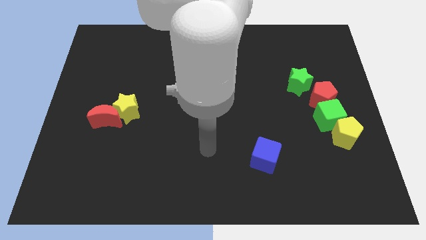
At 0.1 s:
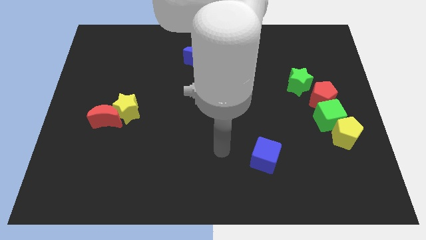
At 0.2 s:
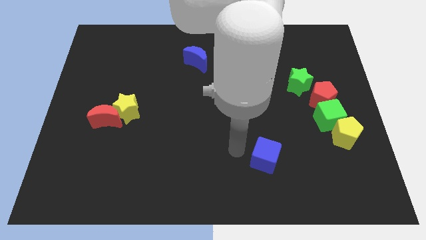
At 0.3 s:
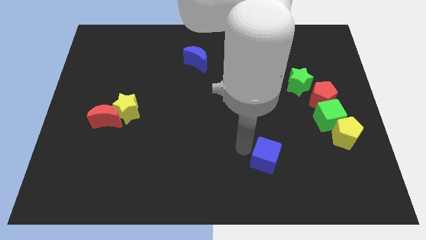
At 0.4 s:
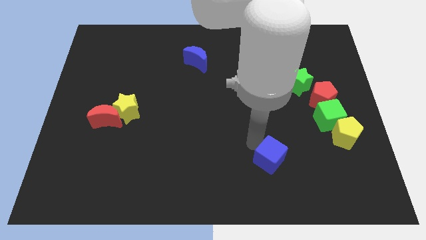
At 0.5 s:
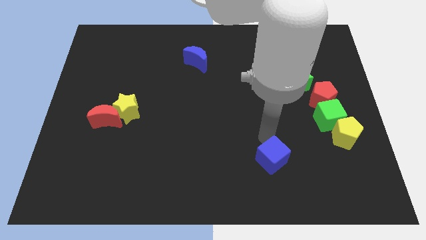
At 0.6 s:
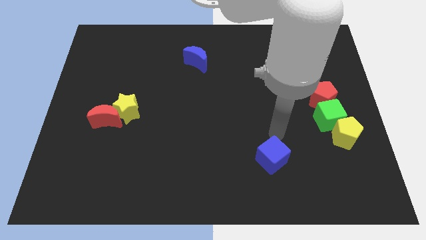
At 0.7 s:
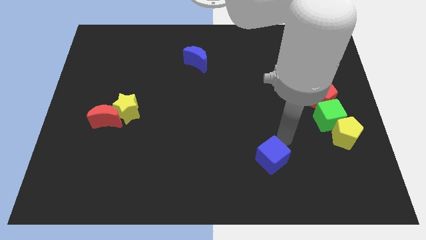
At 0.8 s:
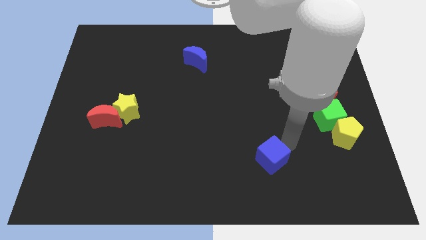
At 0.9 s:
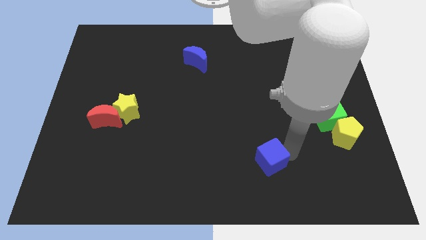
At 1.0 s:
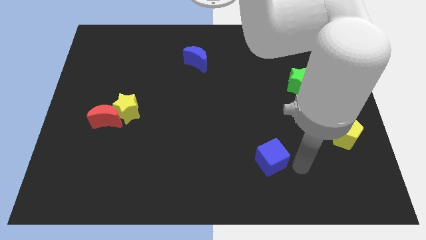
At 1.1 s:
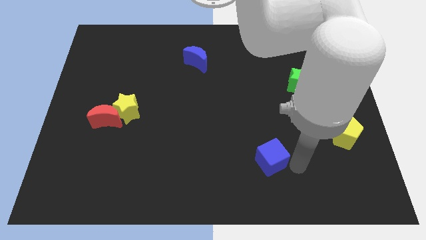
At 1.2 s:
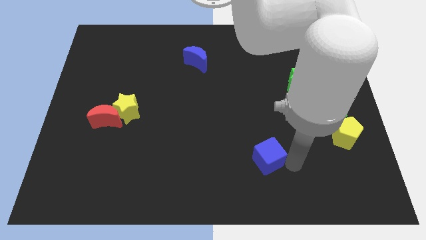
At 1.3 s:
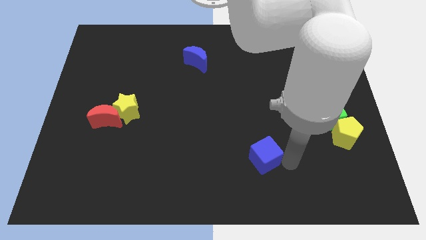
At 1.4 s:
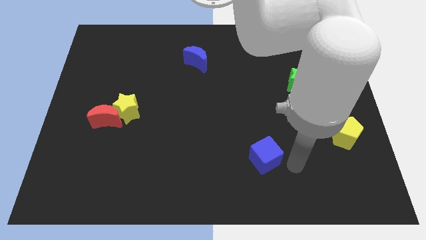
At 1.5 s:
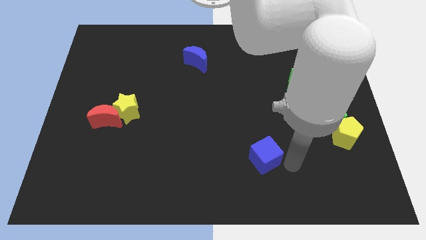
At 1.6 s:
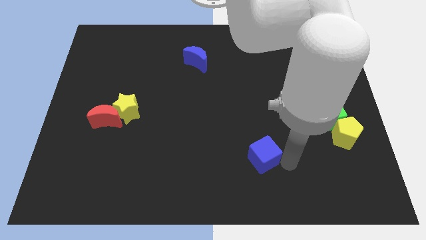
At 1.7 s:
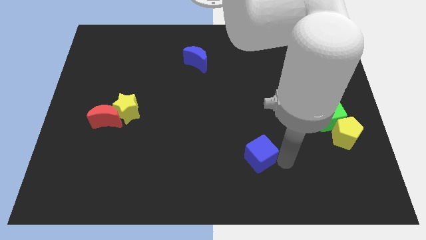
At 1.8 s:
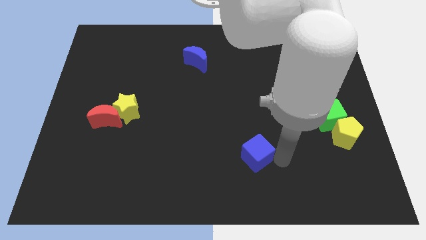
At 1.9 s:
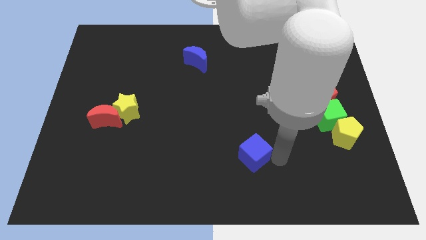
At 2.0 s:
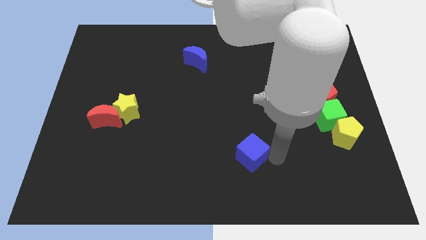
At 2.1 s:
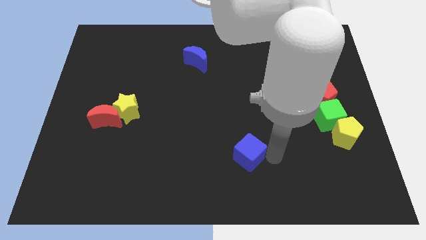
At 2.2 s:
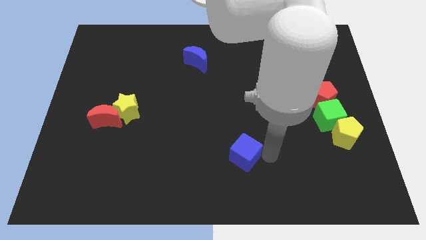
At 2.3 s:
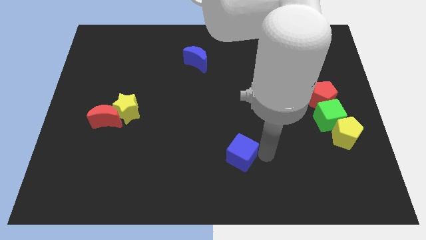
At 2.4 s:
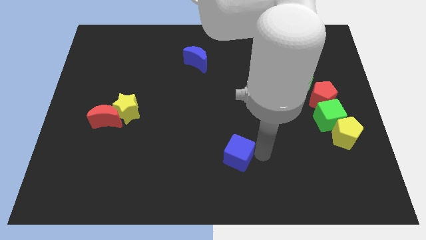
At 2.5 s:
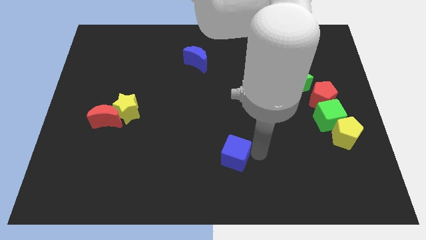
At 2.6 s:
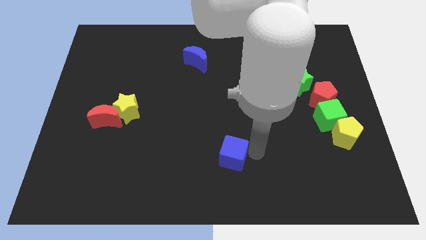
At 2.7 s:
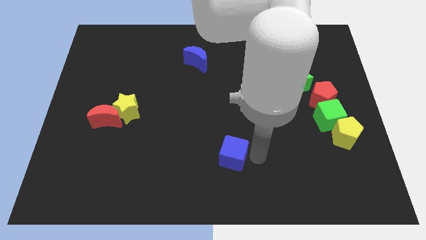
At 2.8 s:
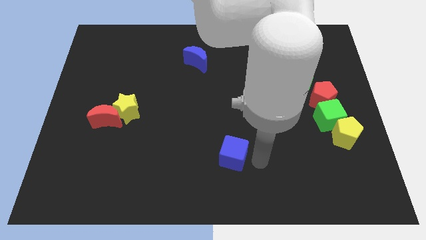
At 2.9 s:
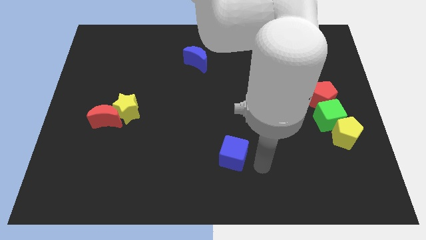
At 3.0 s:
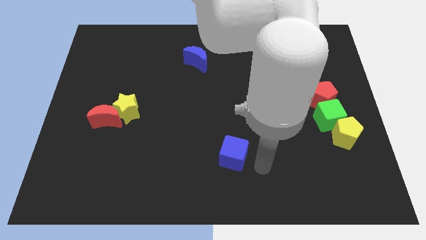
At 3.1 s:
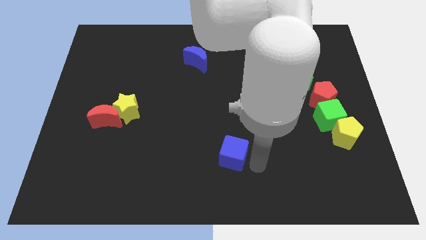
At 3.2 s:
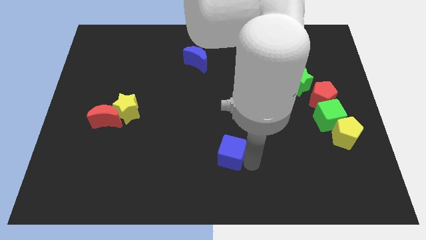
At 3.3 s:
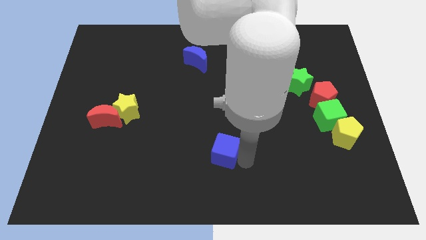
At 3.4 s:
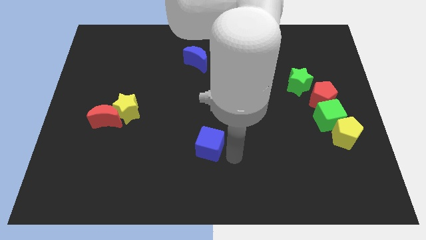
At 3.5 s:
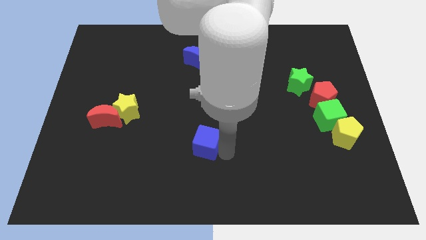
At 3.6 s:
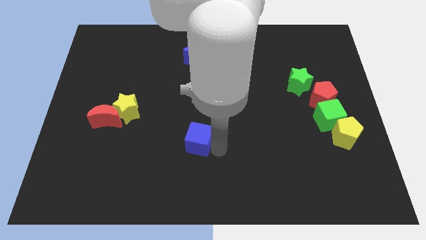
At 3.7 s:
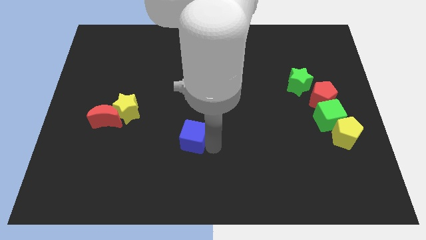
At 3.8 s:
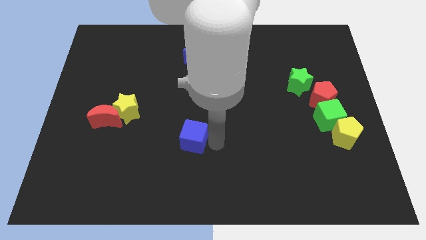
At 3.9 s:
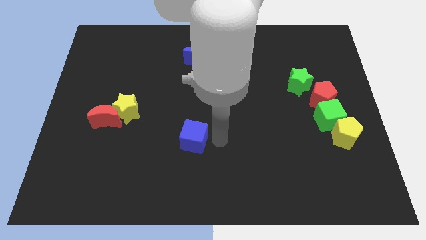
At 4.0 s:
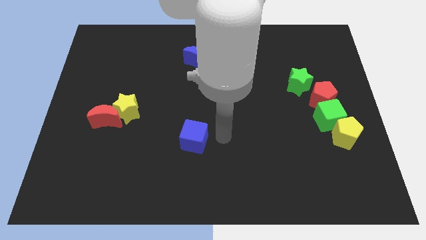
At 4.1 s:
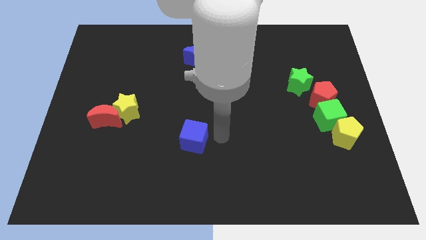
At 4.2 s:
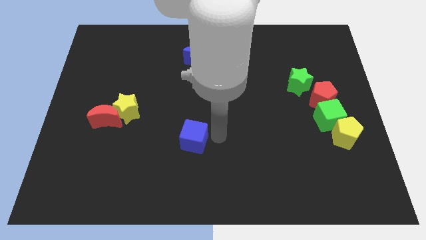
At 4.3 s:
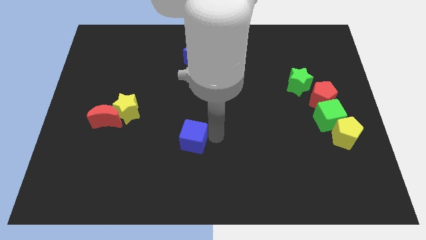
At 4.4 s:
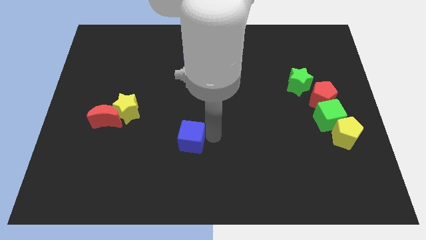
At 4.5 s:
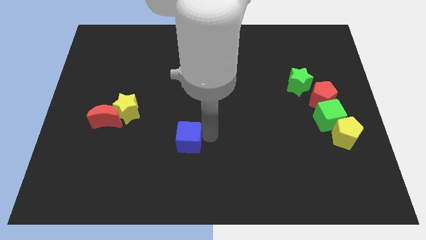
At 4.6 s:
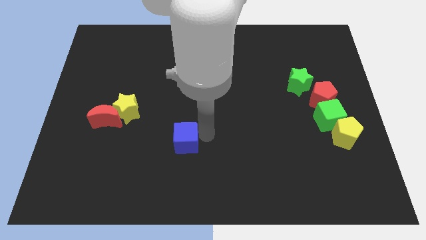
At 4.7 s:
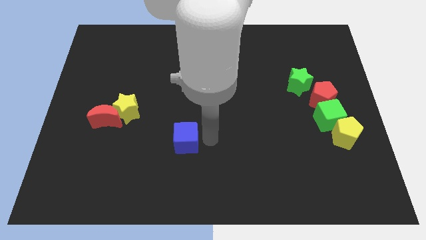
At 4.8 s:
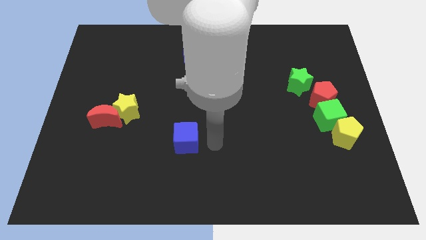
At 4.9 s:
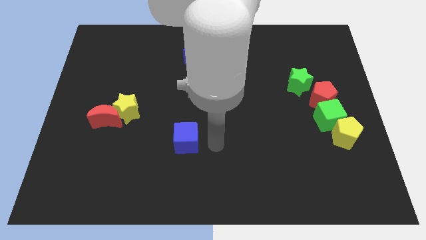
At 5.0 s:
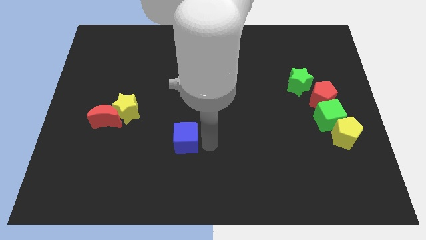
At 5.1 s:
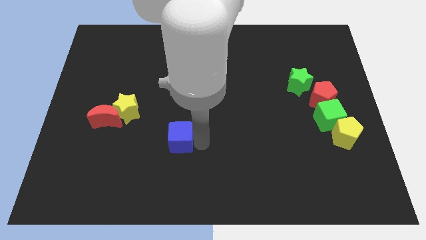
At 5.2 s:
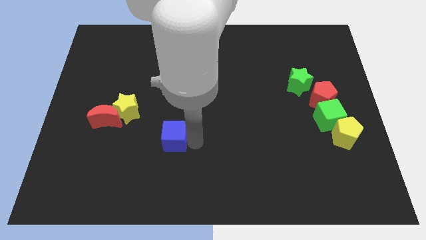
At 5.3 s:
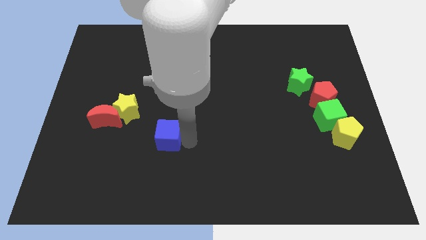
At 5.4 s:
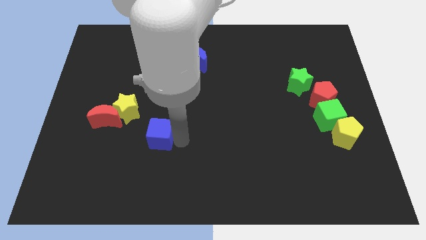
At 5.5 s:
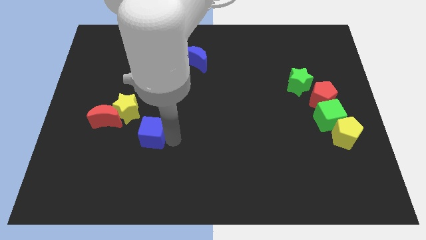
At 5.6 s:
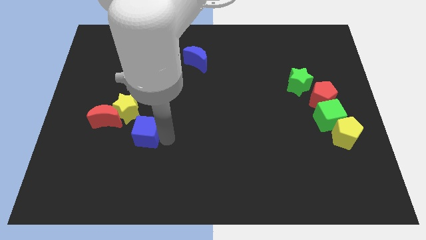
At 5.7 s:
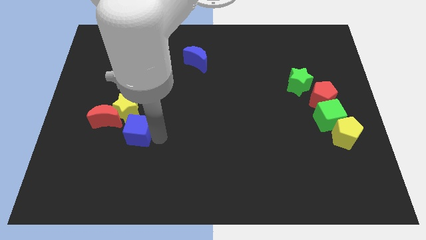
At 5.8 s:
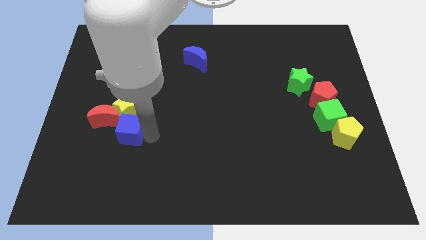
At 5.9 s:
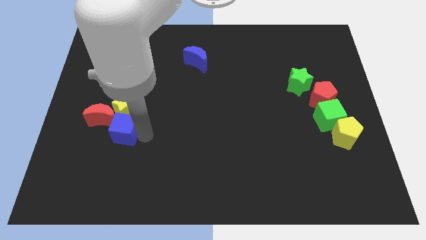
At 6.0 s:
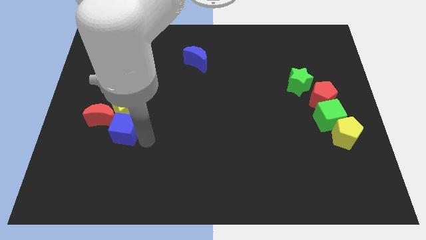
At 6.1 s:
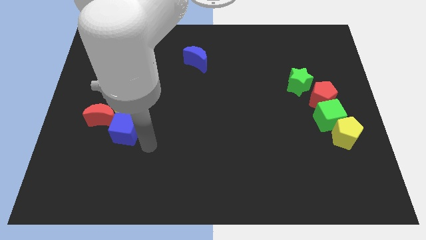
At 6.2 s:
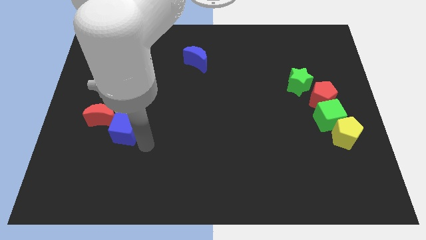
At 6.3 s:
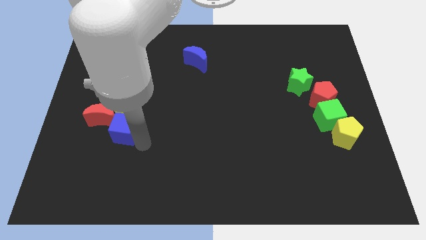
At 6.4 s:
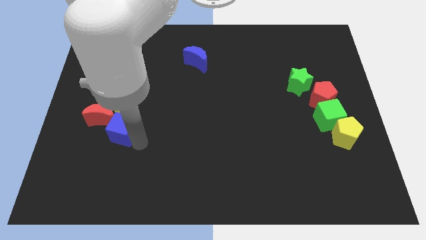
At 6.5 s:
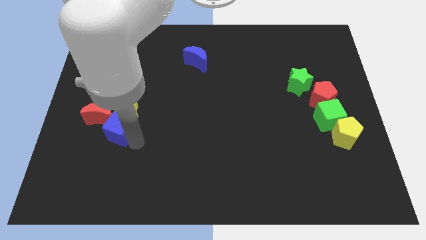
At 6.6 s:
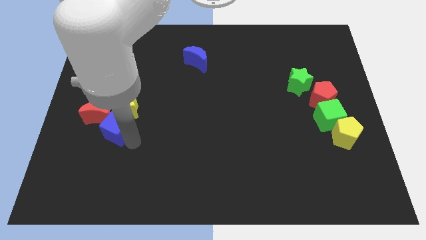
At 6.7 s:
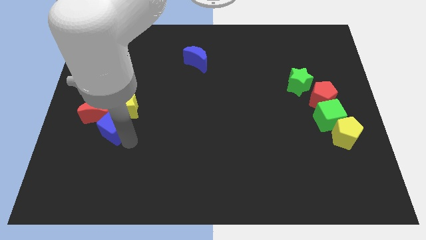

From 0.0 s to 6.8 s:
move the blue cube to the red moon

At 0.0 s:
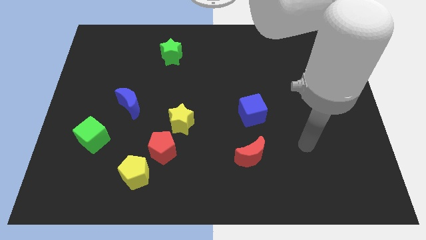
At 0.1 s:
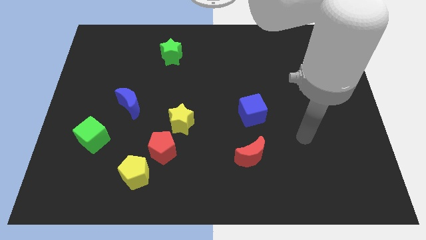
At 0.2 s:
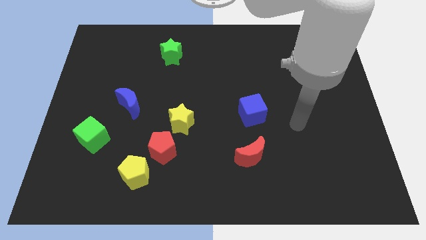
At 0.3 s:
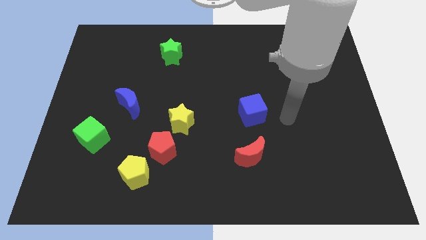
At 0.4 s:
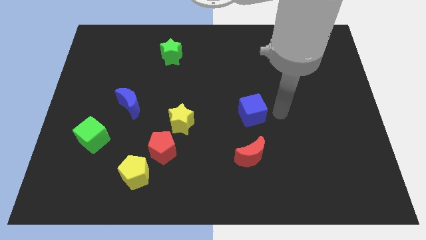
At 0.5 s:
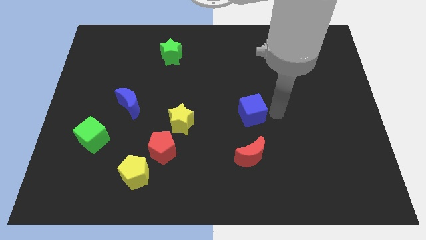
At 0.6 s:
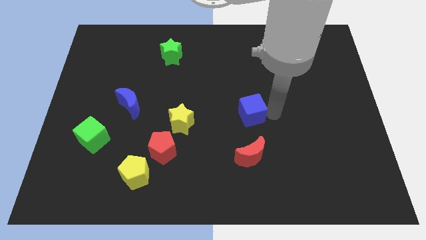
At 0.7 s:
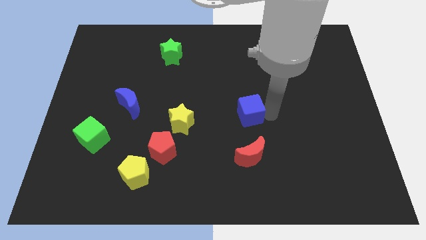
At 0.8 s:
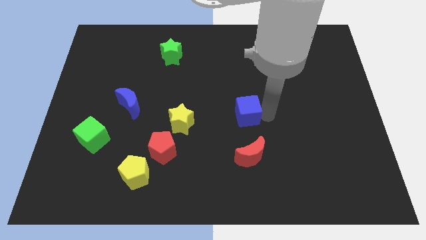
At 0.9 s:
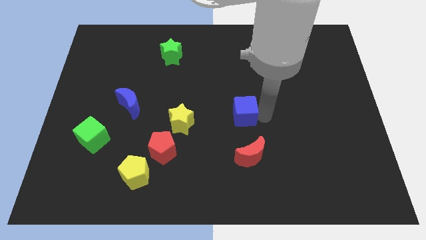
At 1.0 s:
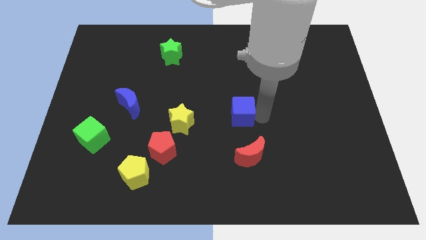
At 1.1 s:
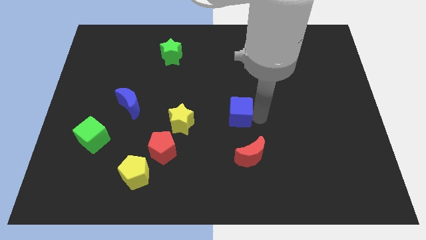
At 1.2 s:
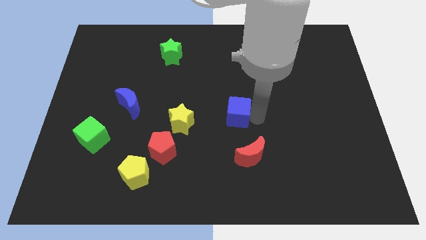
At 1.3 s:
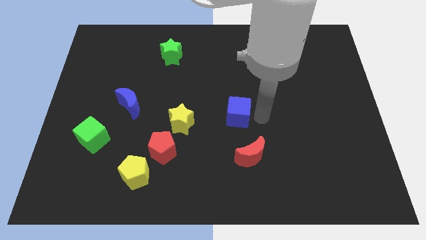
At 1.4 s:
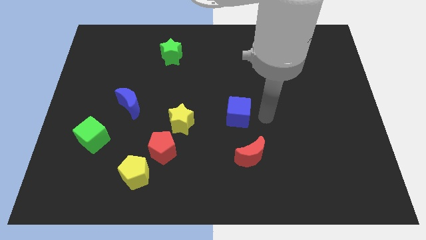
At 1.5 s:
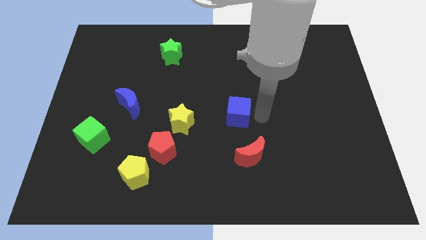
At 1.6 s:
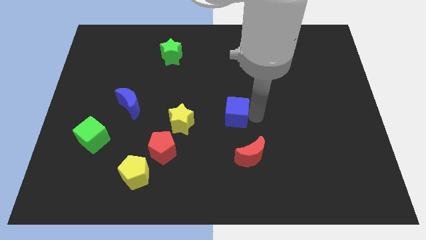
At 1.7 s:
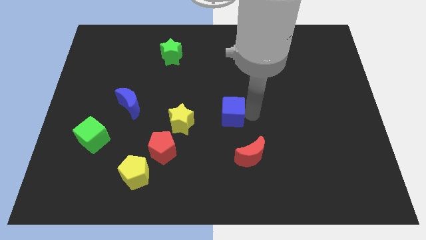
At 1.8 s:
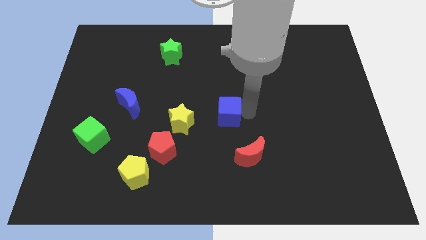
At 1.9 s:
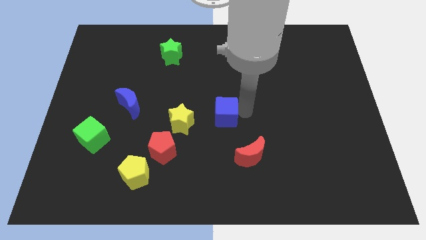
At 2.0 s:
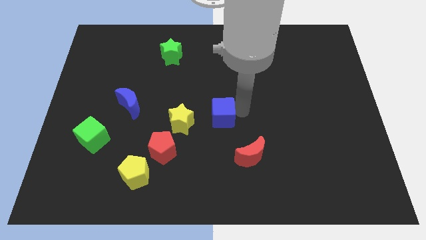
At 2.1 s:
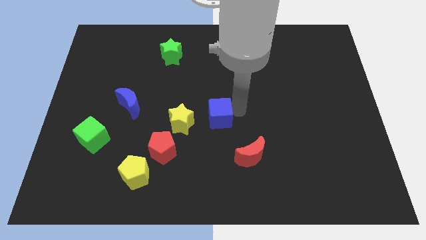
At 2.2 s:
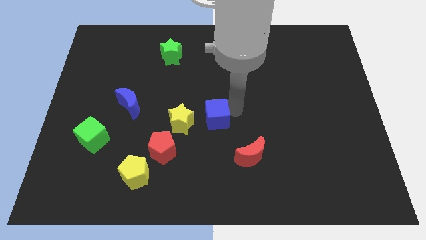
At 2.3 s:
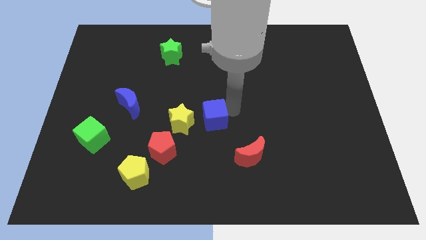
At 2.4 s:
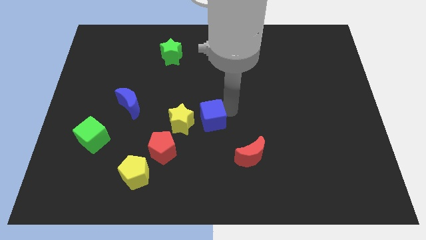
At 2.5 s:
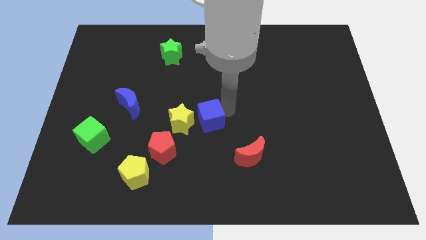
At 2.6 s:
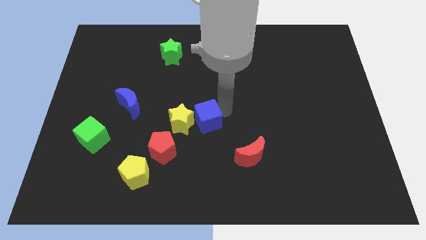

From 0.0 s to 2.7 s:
move the blue cube towards the yellow star
